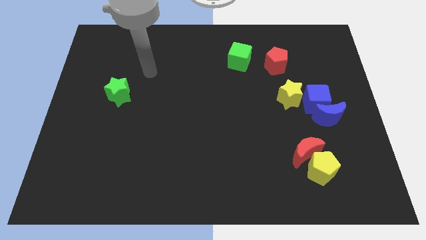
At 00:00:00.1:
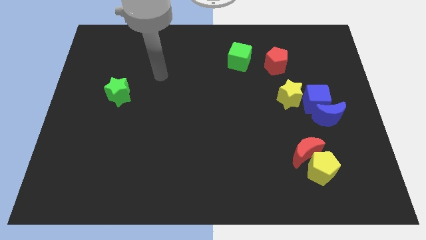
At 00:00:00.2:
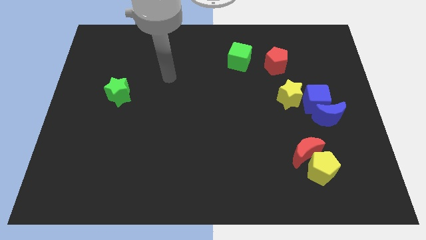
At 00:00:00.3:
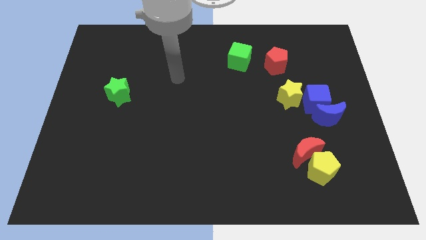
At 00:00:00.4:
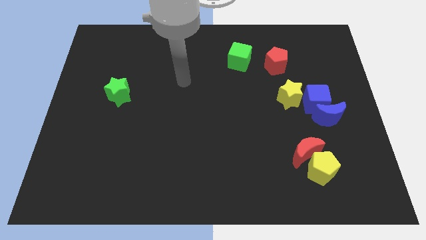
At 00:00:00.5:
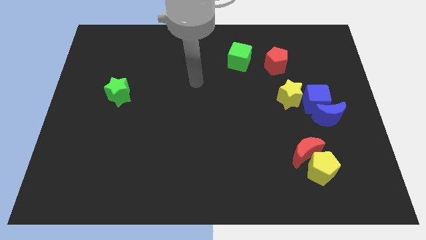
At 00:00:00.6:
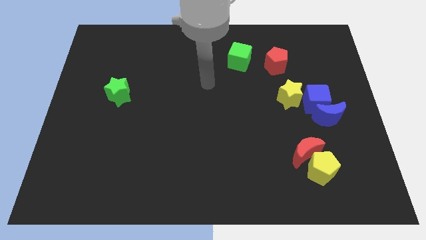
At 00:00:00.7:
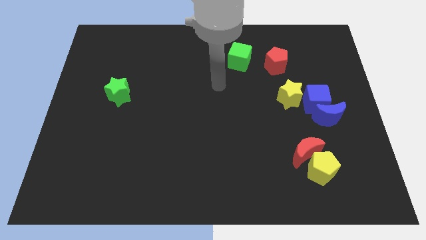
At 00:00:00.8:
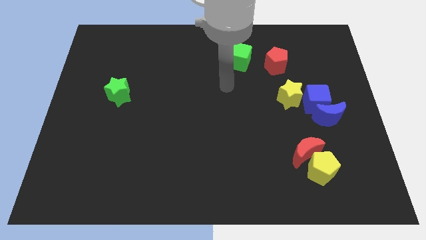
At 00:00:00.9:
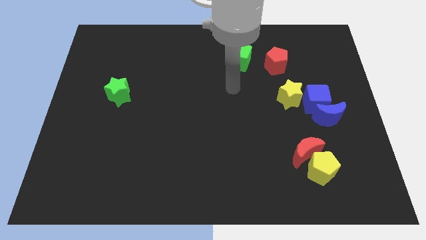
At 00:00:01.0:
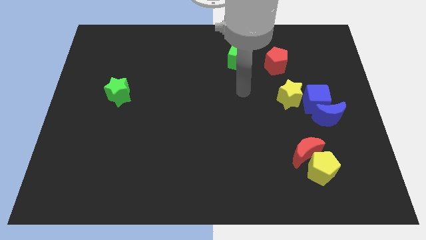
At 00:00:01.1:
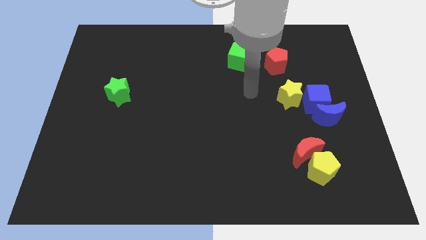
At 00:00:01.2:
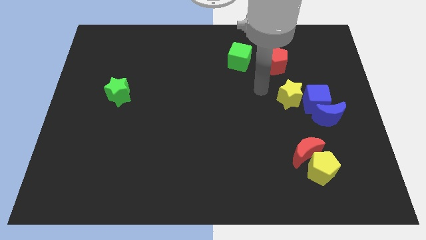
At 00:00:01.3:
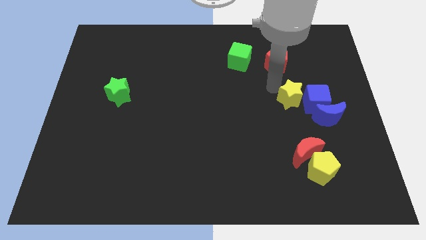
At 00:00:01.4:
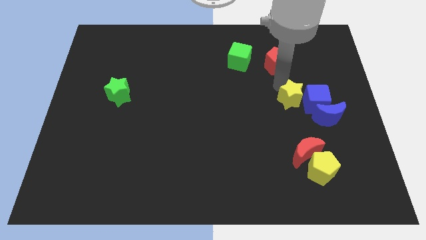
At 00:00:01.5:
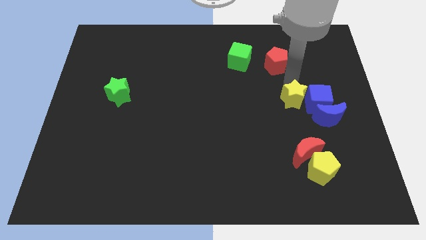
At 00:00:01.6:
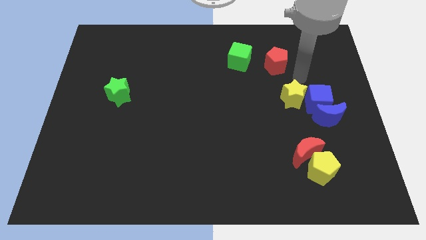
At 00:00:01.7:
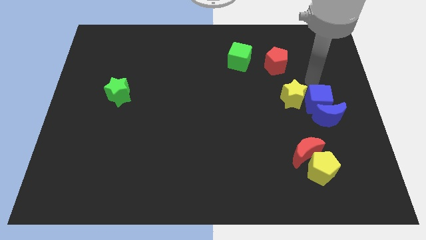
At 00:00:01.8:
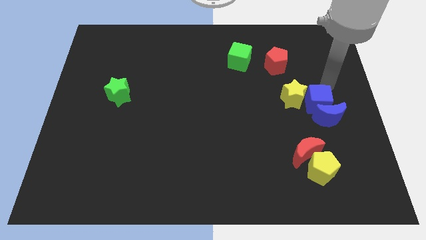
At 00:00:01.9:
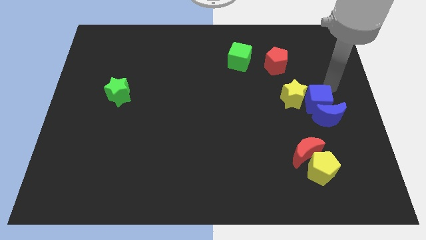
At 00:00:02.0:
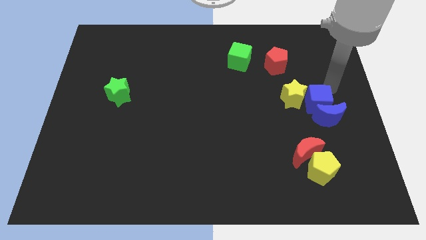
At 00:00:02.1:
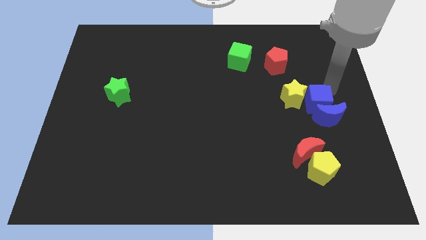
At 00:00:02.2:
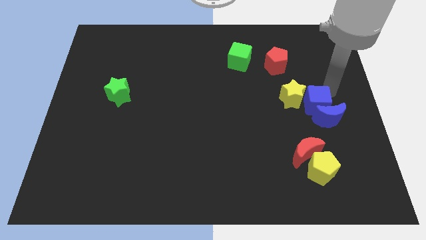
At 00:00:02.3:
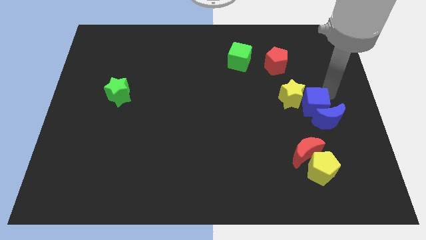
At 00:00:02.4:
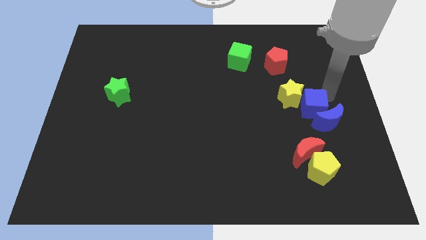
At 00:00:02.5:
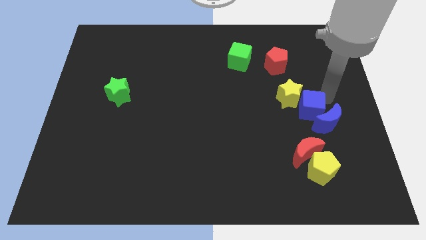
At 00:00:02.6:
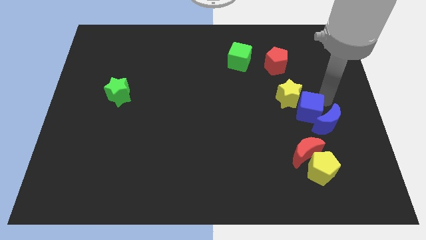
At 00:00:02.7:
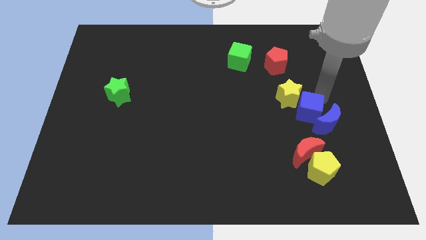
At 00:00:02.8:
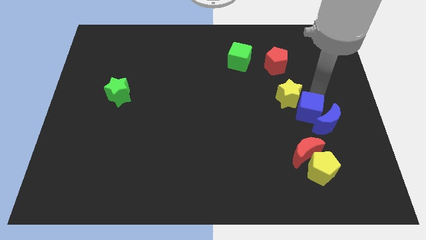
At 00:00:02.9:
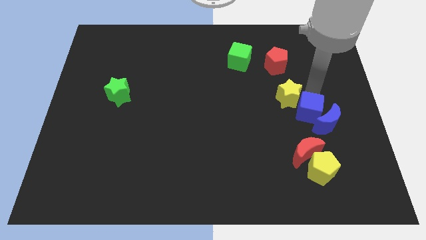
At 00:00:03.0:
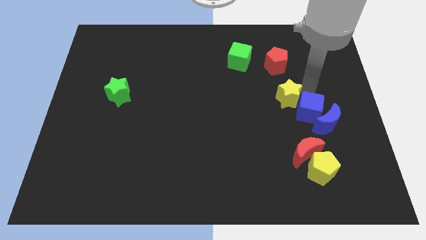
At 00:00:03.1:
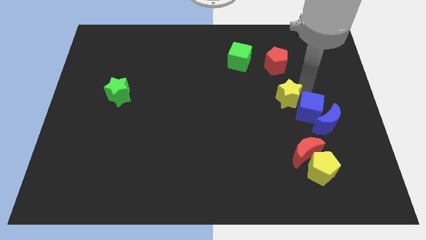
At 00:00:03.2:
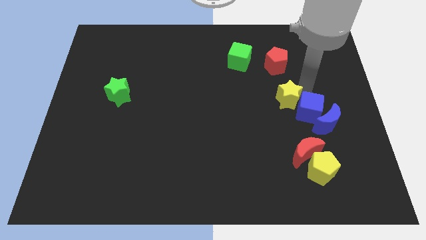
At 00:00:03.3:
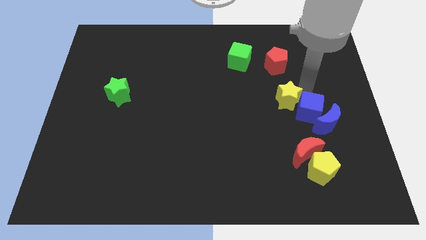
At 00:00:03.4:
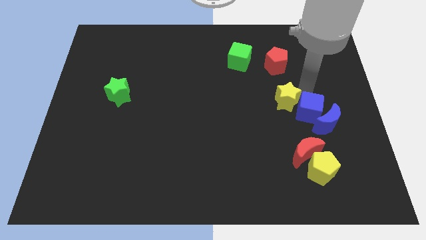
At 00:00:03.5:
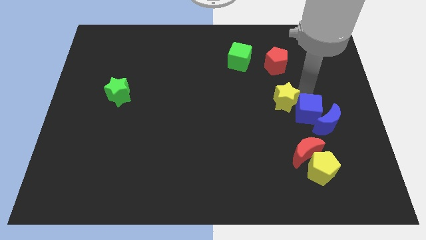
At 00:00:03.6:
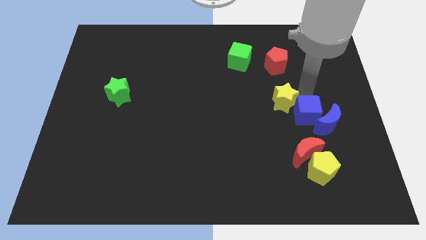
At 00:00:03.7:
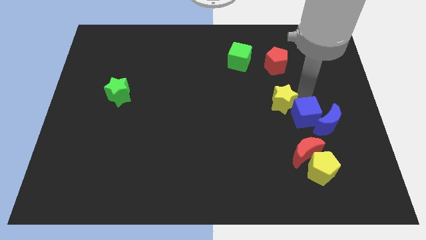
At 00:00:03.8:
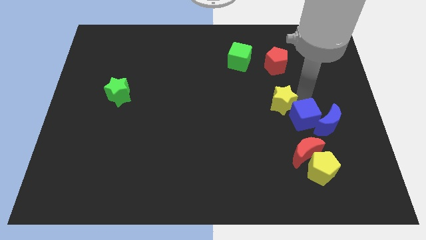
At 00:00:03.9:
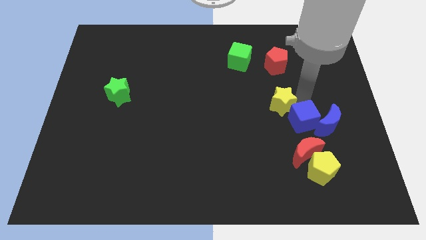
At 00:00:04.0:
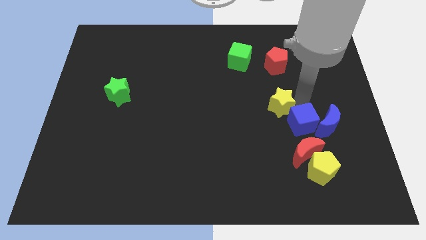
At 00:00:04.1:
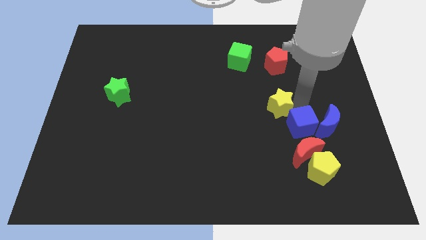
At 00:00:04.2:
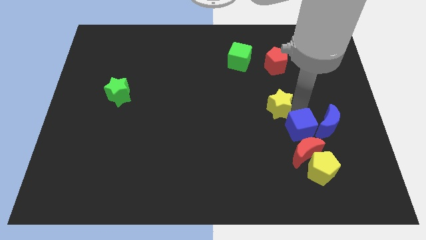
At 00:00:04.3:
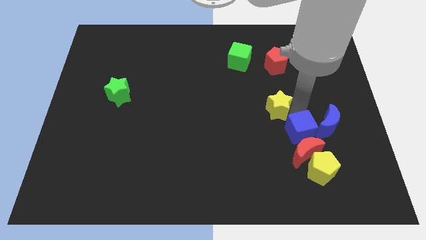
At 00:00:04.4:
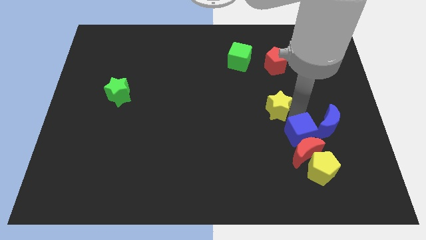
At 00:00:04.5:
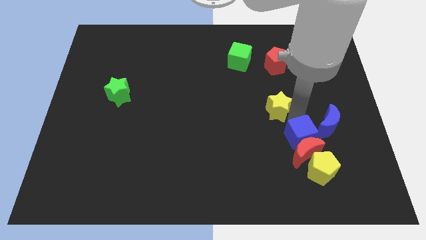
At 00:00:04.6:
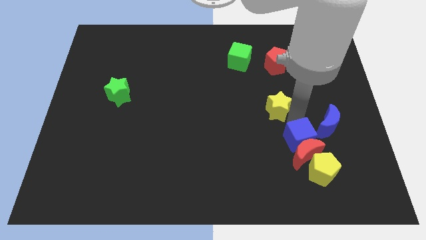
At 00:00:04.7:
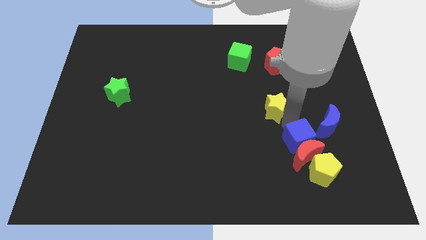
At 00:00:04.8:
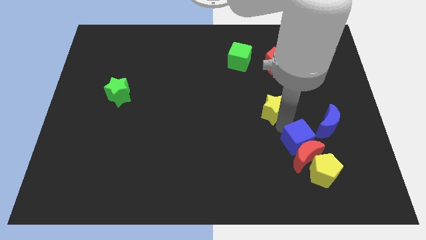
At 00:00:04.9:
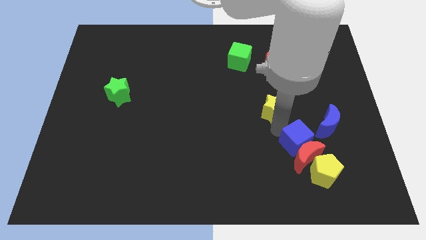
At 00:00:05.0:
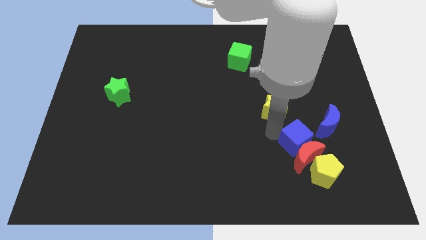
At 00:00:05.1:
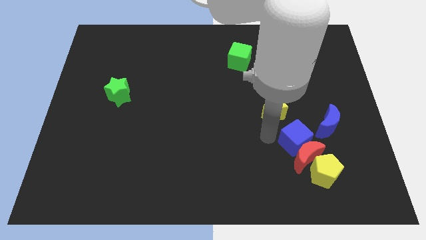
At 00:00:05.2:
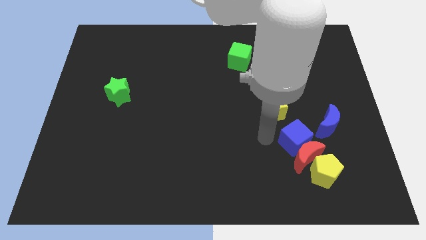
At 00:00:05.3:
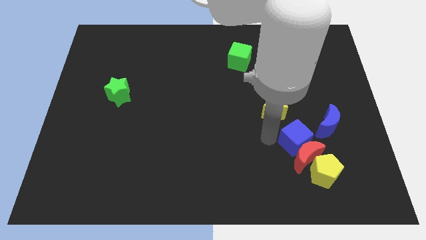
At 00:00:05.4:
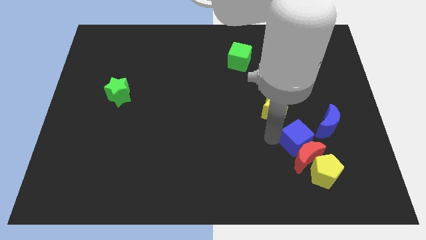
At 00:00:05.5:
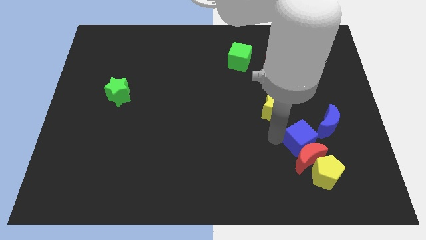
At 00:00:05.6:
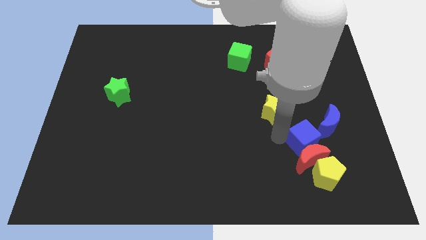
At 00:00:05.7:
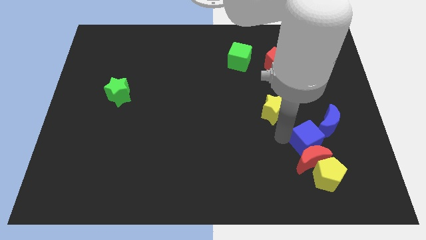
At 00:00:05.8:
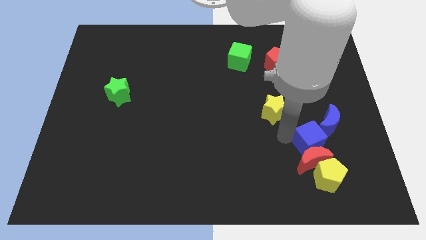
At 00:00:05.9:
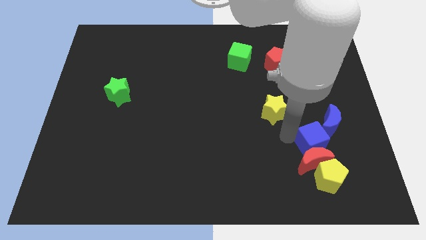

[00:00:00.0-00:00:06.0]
put the blue cube below the blue moon
